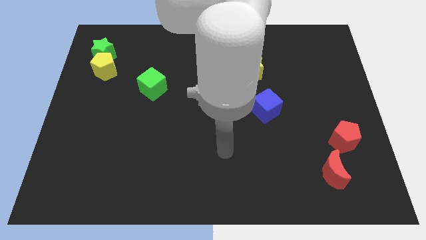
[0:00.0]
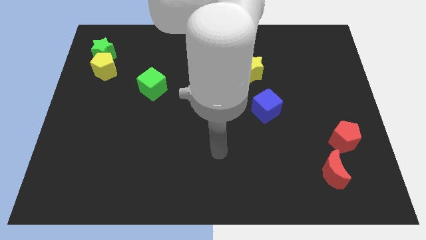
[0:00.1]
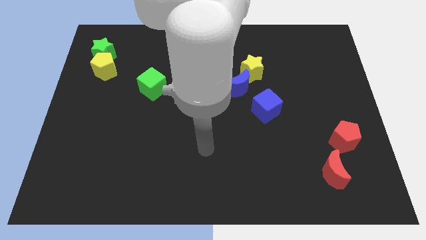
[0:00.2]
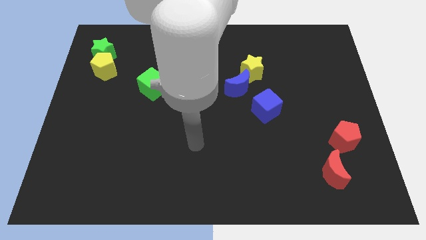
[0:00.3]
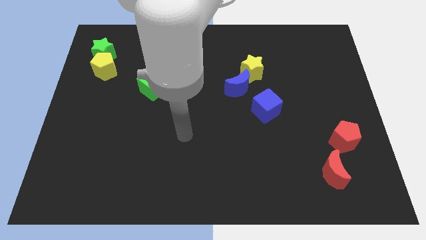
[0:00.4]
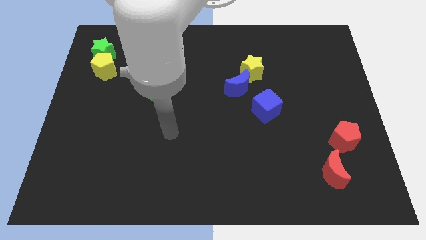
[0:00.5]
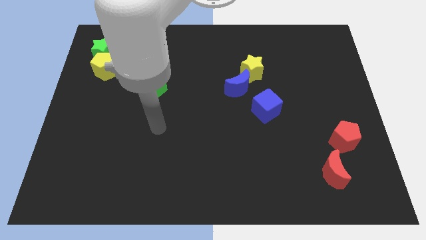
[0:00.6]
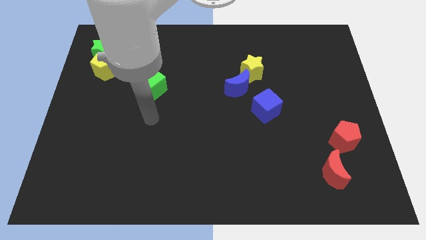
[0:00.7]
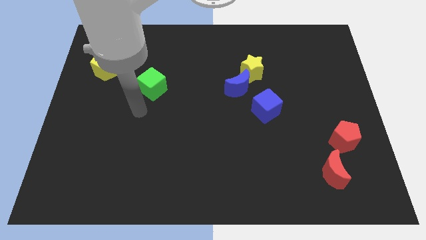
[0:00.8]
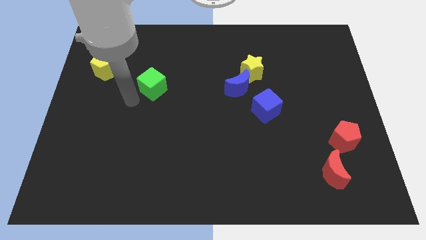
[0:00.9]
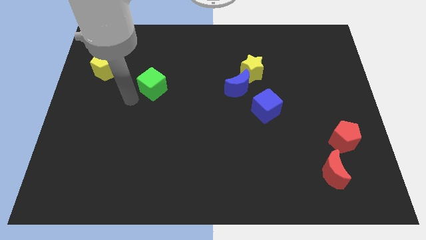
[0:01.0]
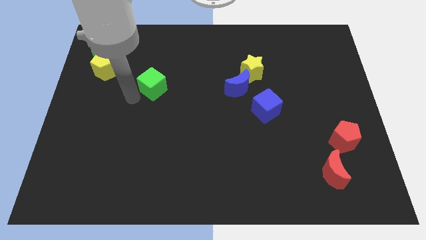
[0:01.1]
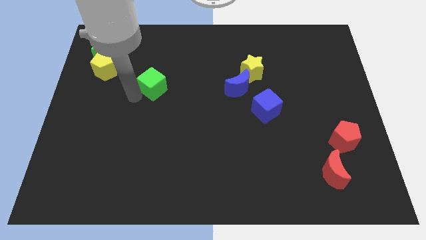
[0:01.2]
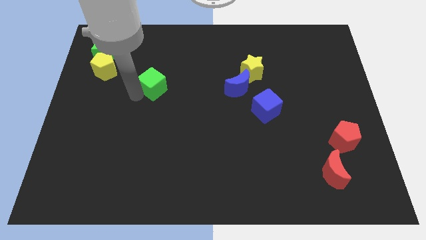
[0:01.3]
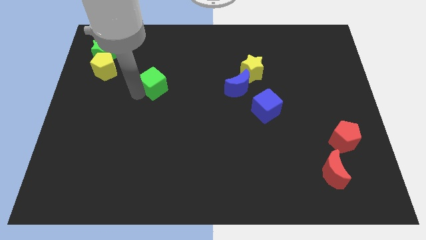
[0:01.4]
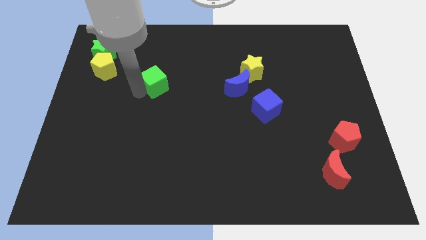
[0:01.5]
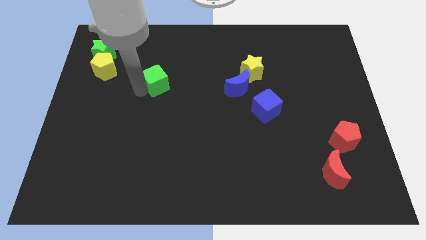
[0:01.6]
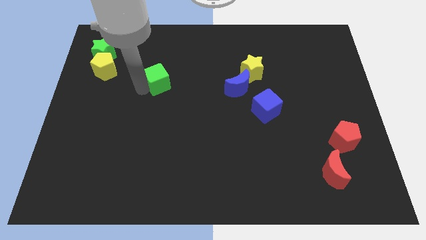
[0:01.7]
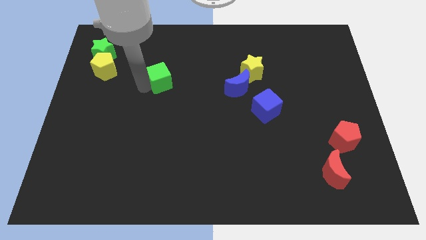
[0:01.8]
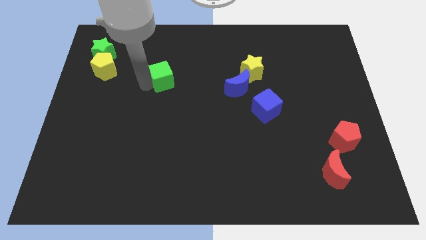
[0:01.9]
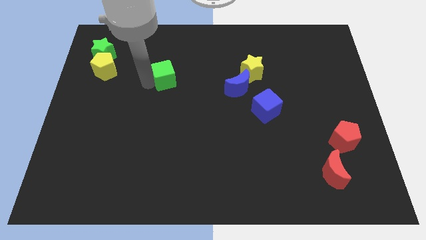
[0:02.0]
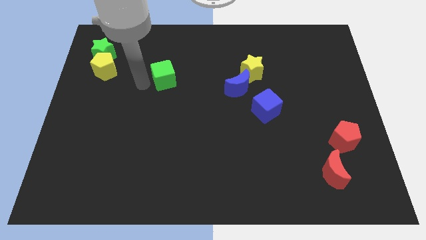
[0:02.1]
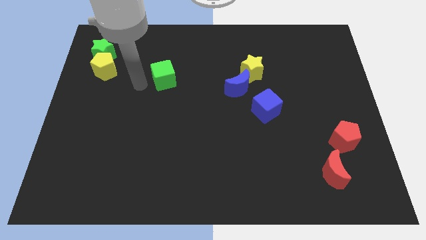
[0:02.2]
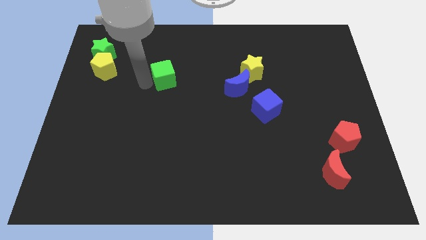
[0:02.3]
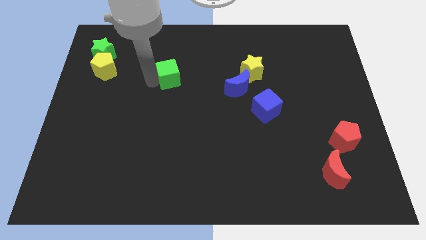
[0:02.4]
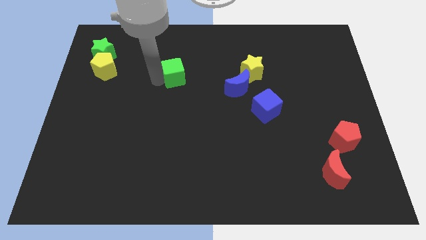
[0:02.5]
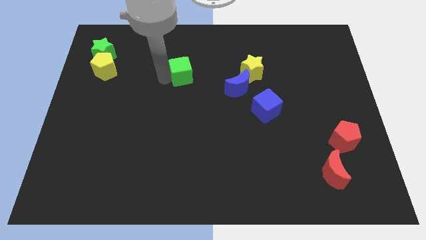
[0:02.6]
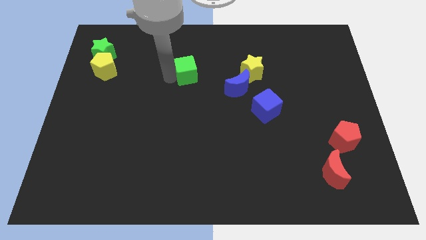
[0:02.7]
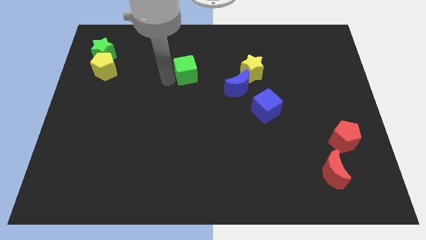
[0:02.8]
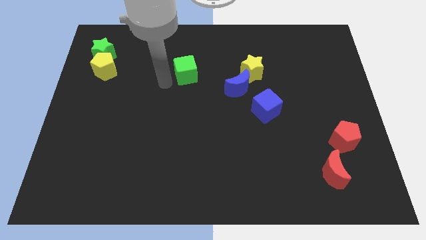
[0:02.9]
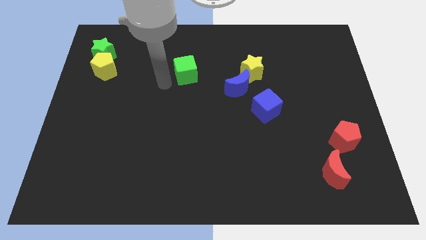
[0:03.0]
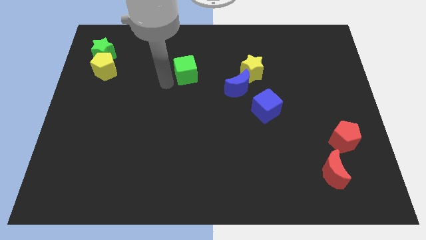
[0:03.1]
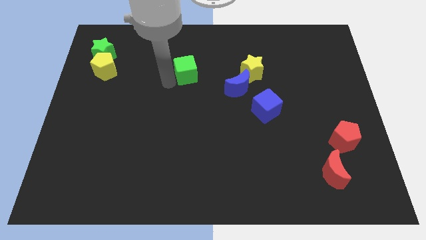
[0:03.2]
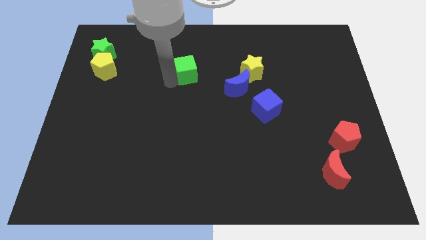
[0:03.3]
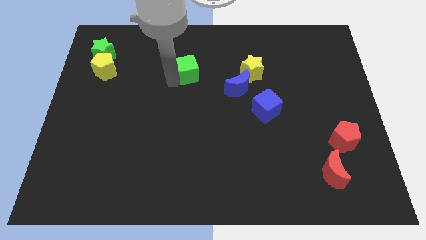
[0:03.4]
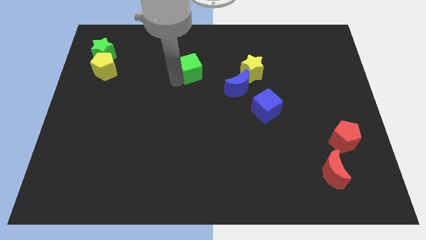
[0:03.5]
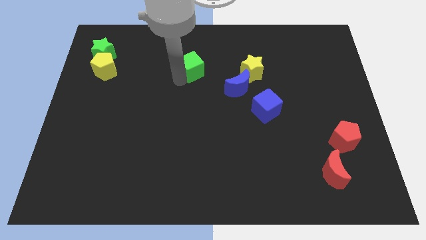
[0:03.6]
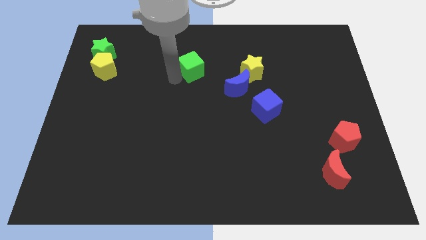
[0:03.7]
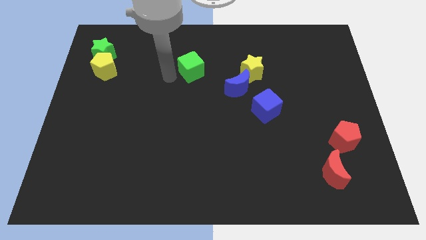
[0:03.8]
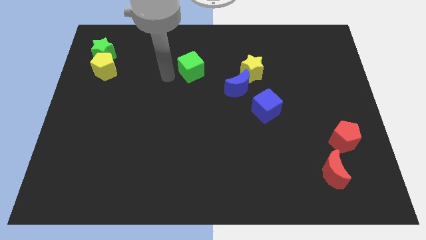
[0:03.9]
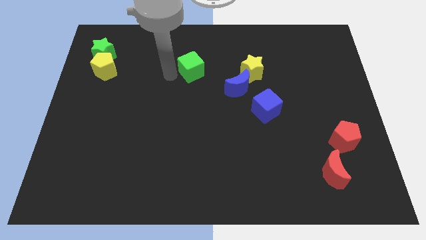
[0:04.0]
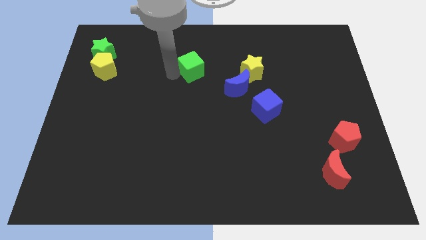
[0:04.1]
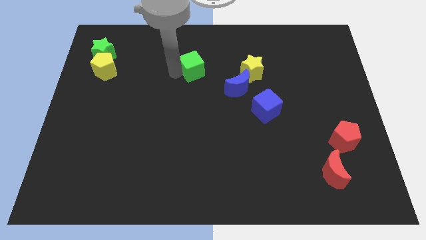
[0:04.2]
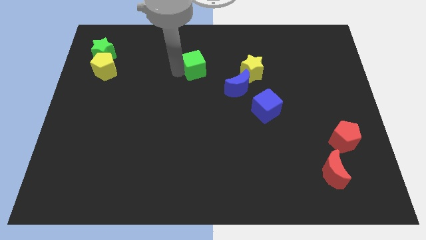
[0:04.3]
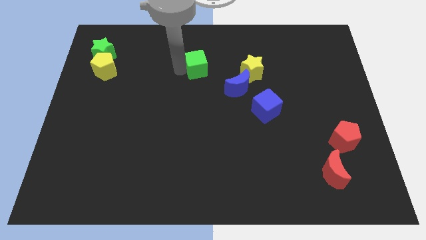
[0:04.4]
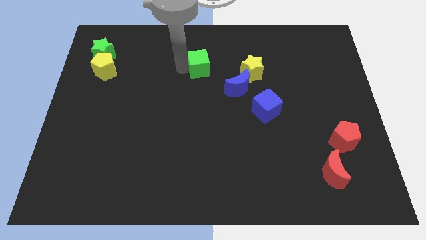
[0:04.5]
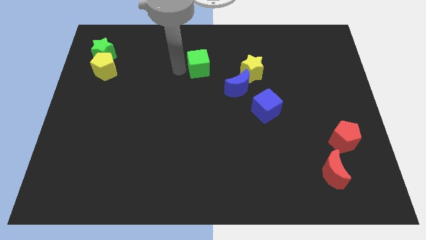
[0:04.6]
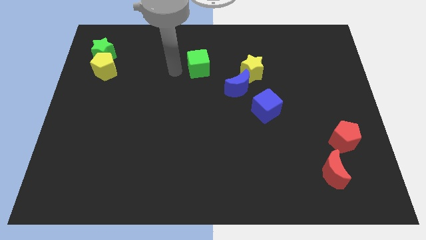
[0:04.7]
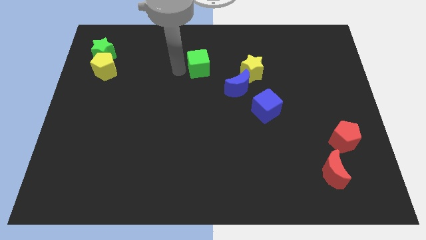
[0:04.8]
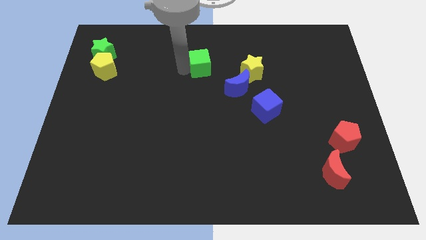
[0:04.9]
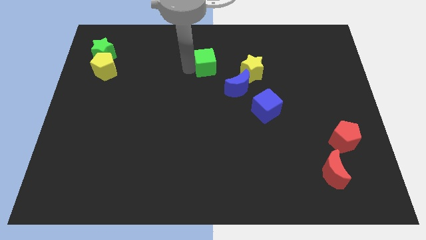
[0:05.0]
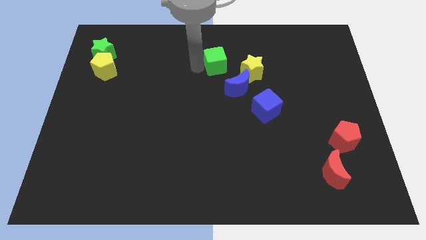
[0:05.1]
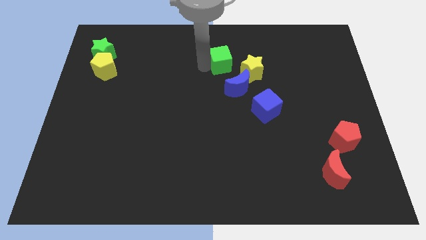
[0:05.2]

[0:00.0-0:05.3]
put the green cube above the blue moon

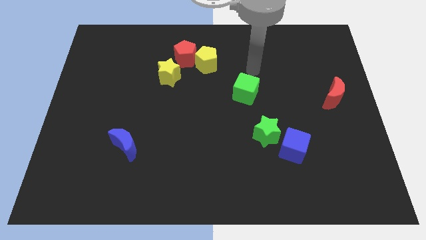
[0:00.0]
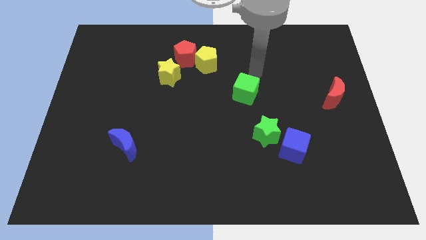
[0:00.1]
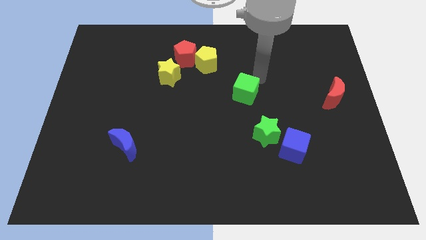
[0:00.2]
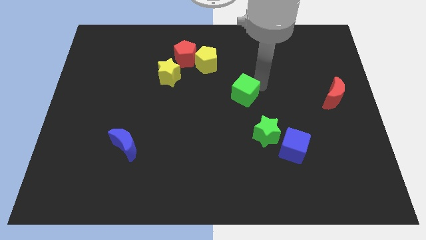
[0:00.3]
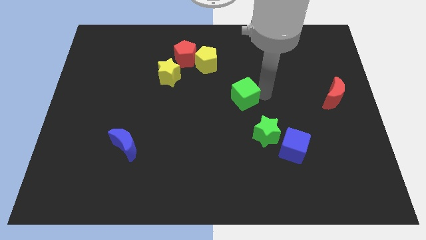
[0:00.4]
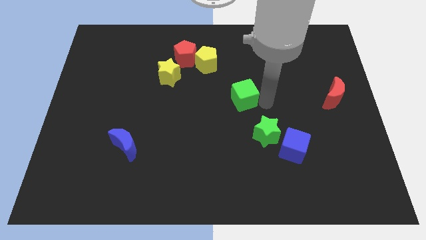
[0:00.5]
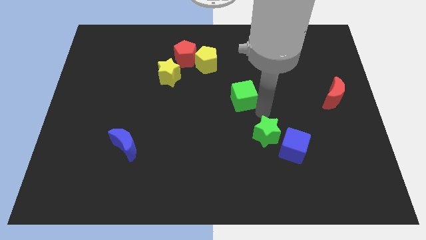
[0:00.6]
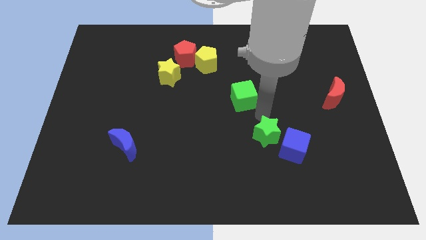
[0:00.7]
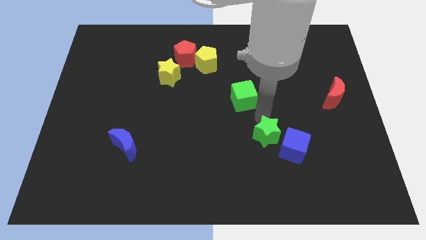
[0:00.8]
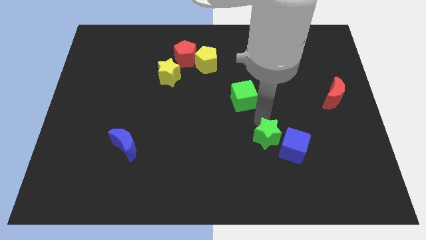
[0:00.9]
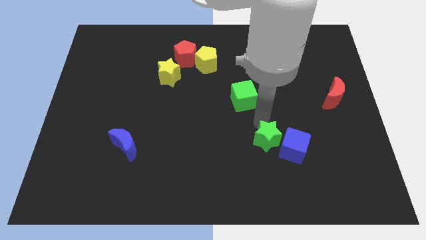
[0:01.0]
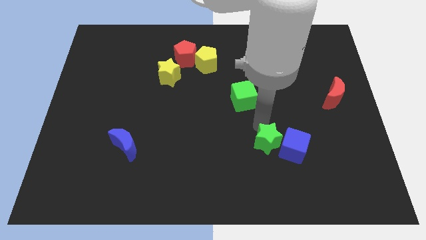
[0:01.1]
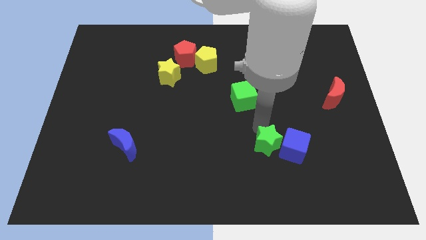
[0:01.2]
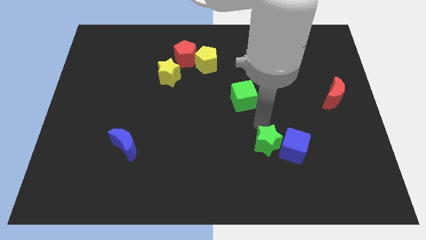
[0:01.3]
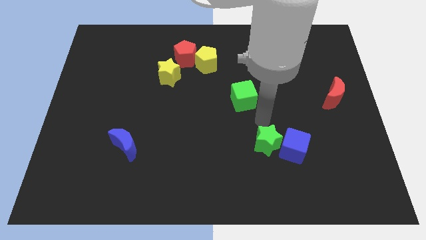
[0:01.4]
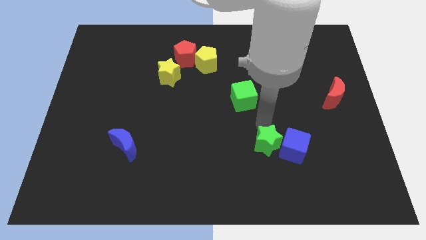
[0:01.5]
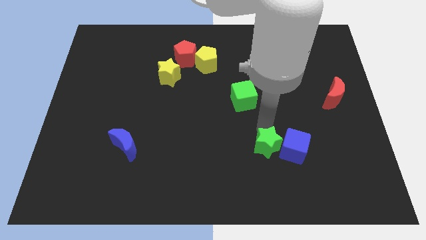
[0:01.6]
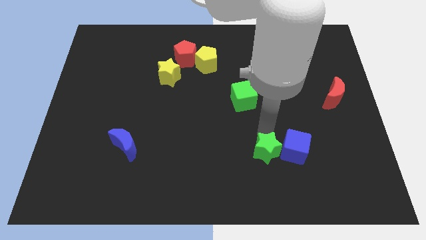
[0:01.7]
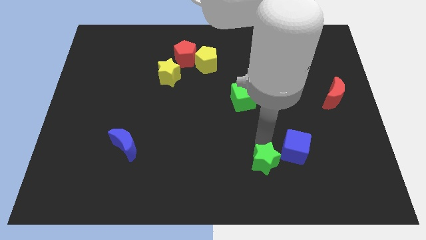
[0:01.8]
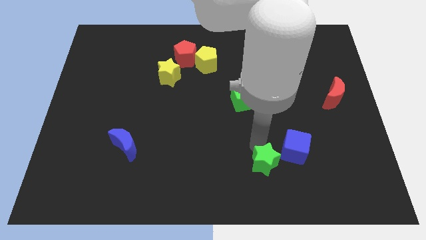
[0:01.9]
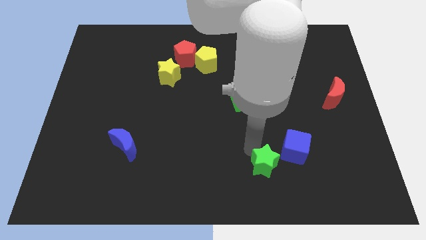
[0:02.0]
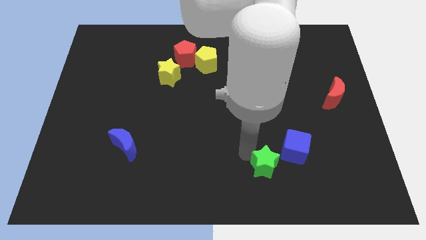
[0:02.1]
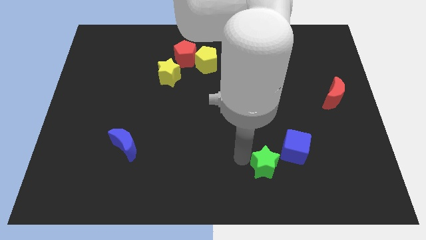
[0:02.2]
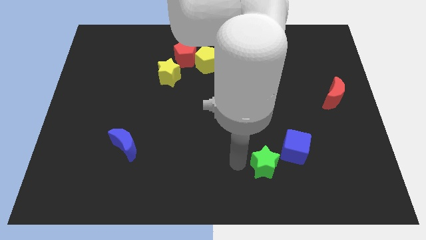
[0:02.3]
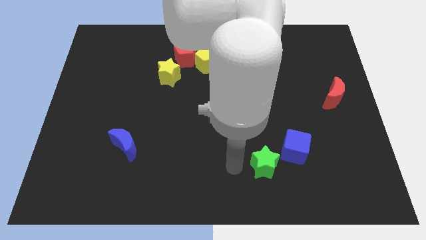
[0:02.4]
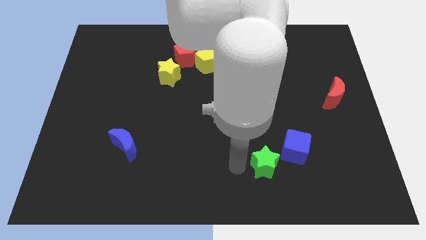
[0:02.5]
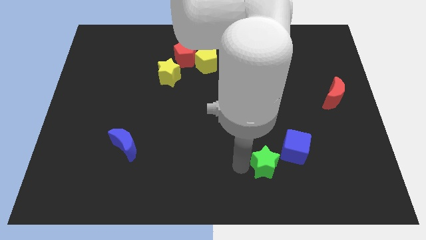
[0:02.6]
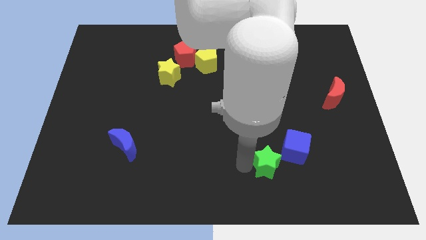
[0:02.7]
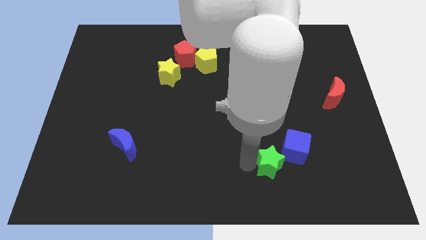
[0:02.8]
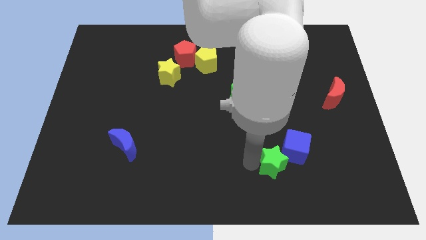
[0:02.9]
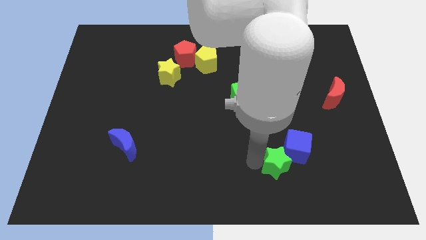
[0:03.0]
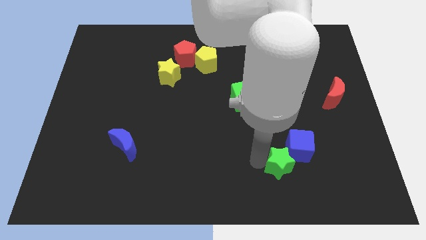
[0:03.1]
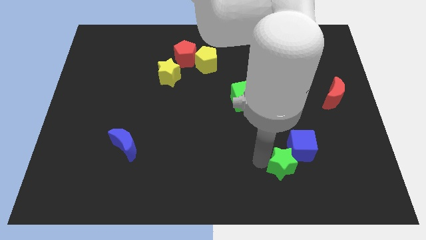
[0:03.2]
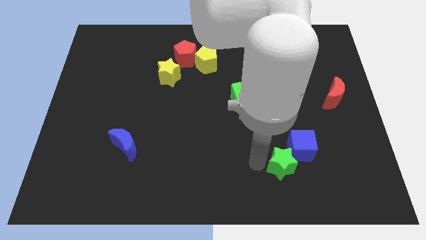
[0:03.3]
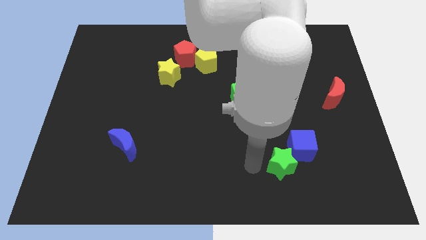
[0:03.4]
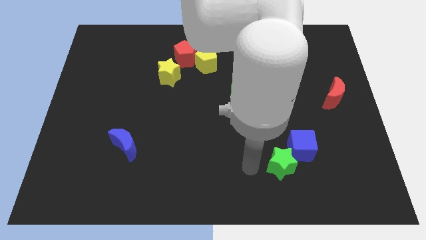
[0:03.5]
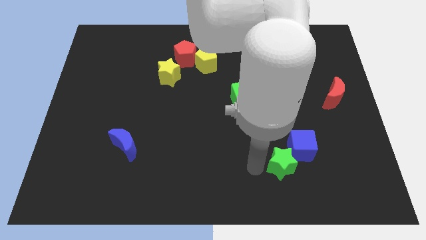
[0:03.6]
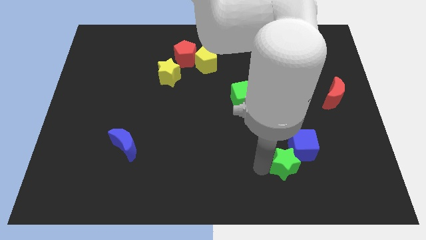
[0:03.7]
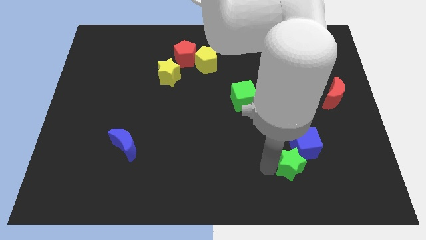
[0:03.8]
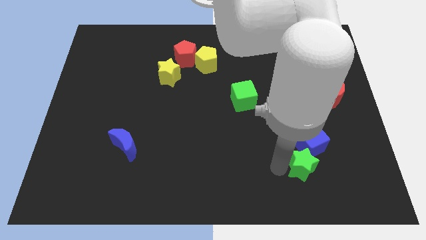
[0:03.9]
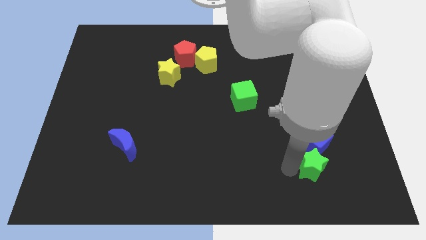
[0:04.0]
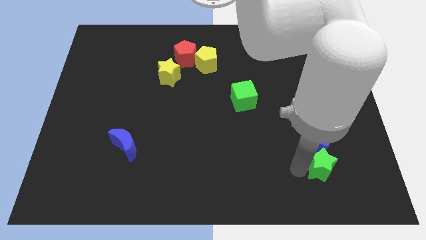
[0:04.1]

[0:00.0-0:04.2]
push the green star to the bottom right of the blue cube
